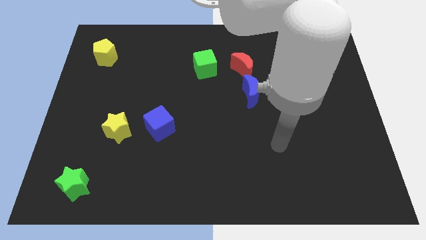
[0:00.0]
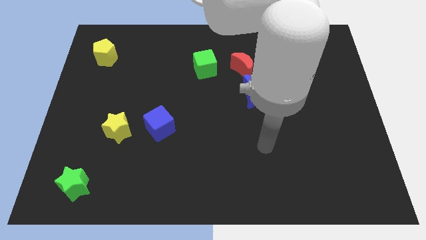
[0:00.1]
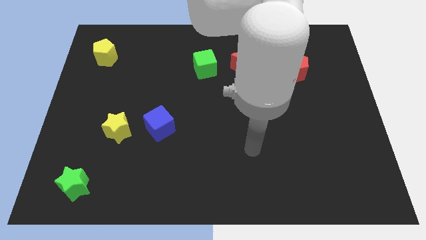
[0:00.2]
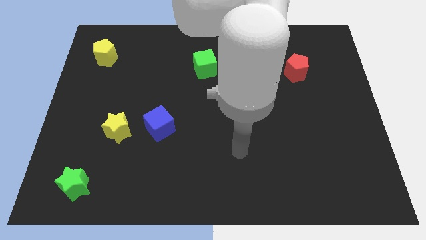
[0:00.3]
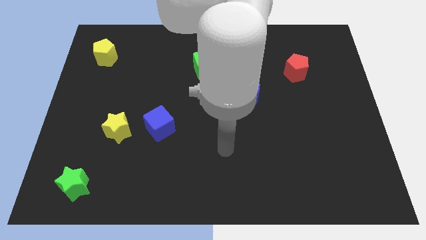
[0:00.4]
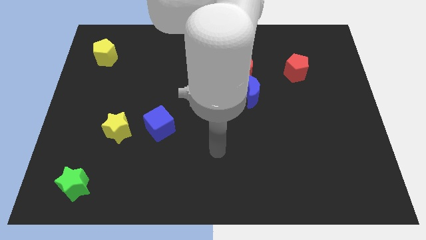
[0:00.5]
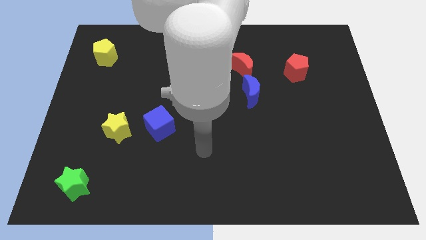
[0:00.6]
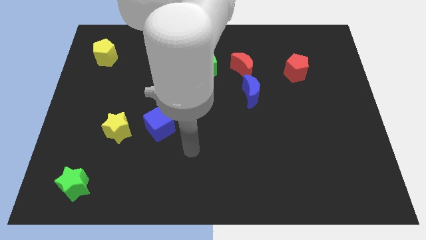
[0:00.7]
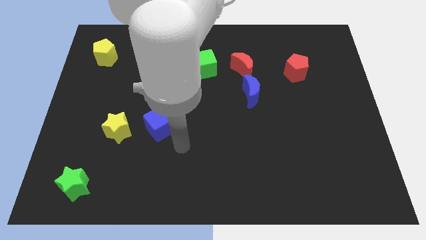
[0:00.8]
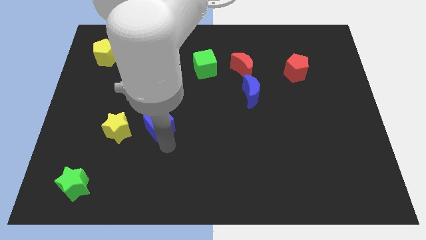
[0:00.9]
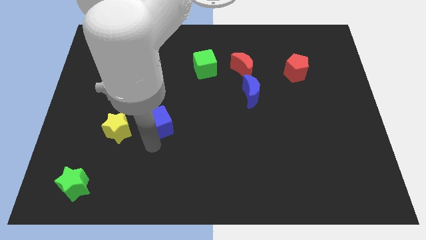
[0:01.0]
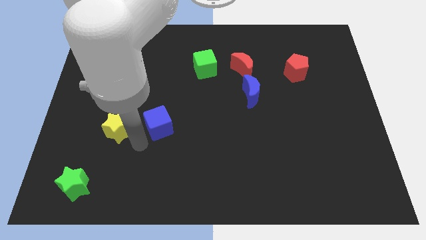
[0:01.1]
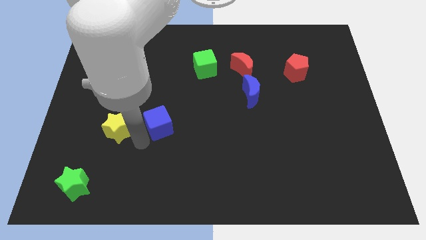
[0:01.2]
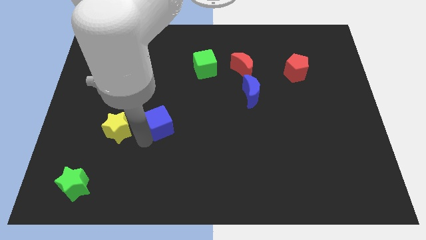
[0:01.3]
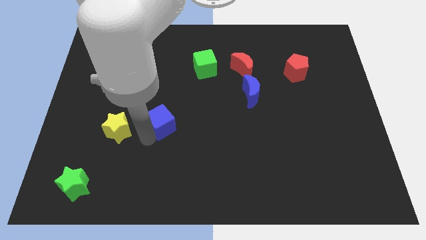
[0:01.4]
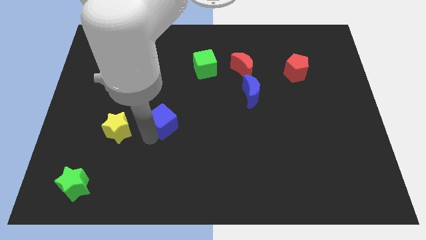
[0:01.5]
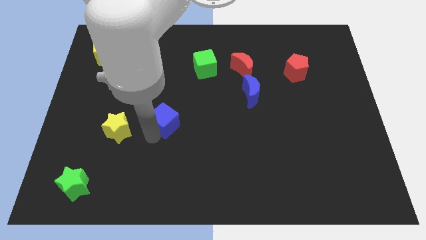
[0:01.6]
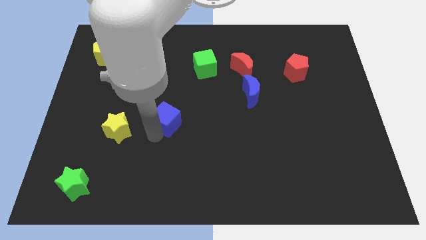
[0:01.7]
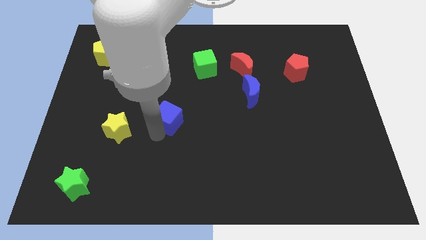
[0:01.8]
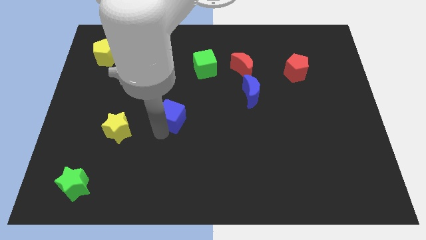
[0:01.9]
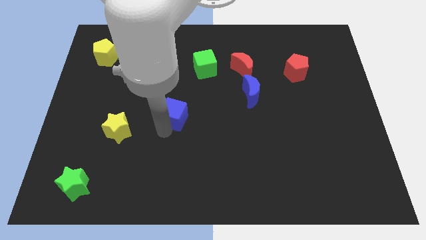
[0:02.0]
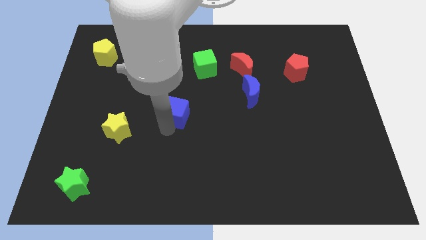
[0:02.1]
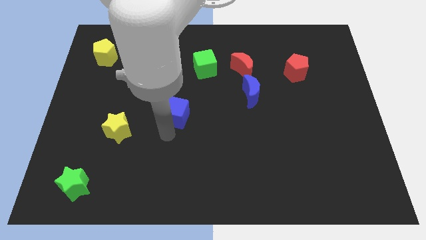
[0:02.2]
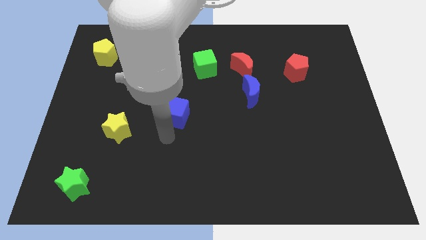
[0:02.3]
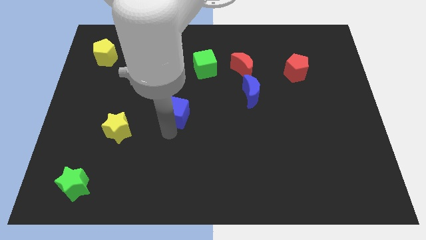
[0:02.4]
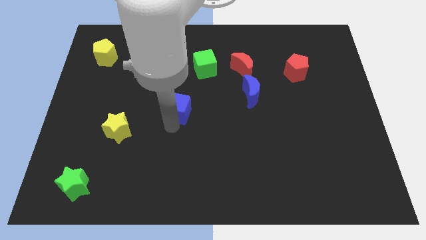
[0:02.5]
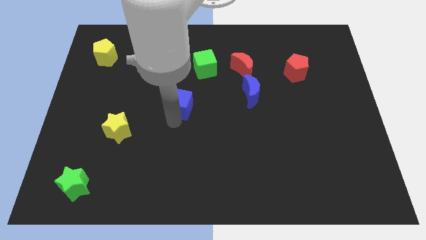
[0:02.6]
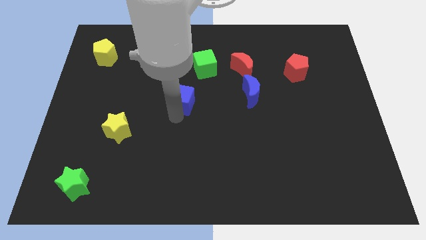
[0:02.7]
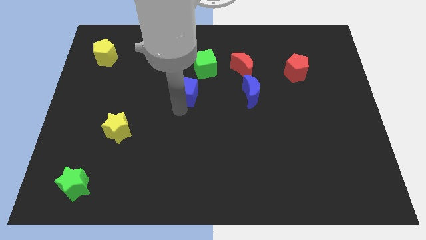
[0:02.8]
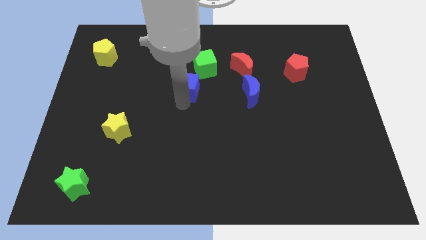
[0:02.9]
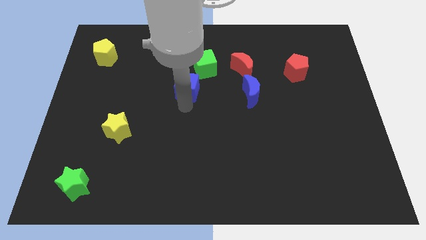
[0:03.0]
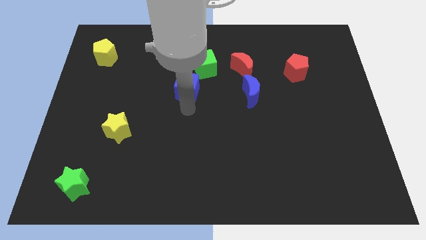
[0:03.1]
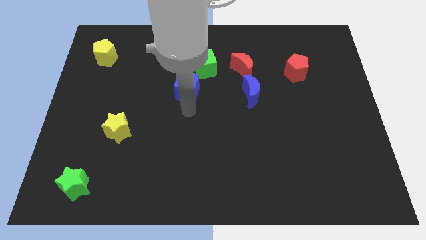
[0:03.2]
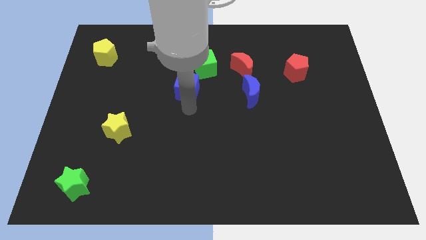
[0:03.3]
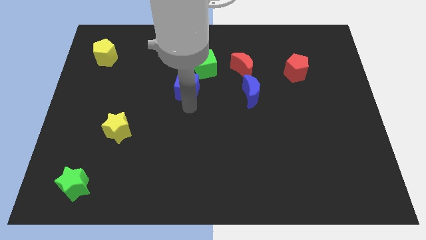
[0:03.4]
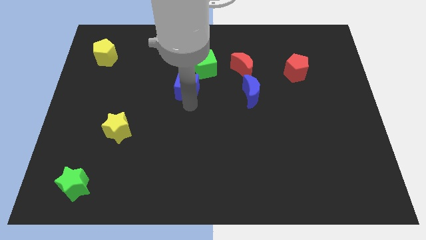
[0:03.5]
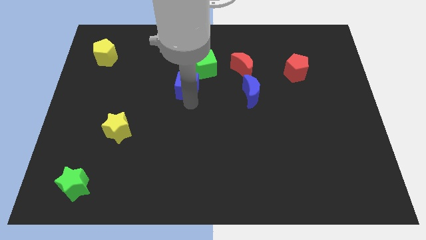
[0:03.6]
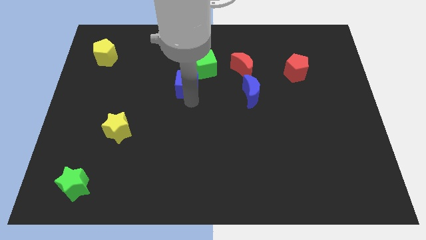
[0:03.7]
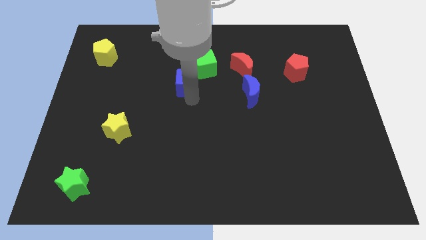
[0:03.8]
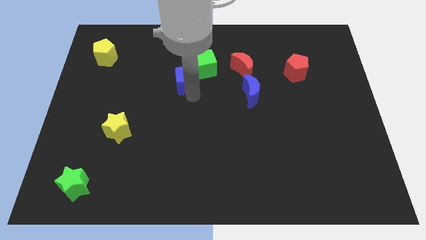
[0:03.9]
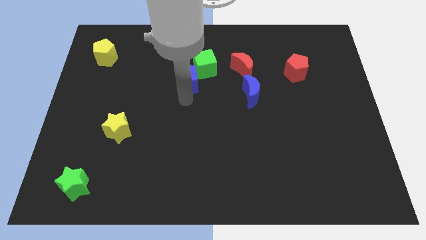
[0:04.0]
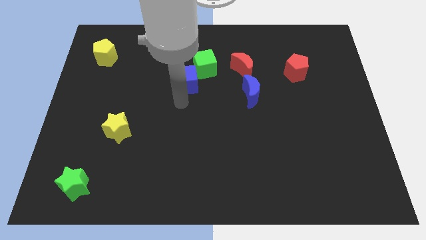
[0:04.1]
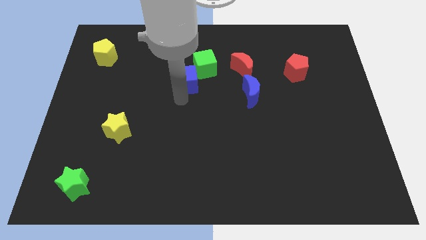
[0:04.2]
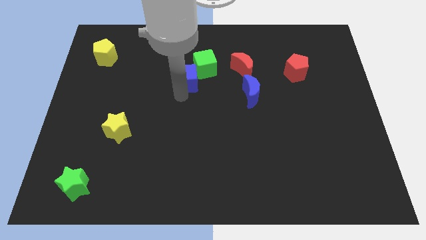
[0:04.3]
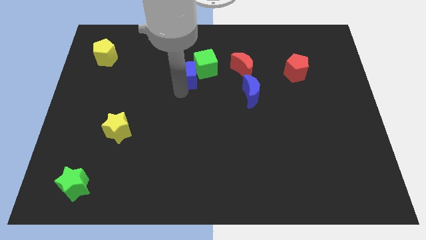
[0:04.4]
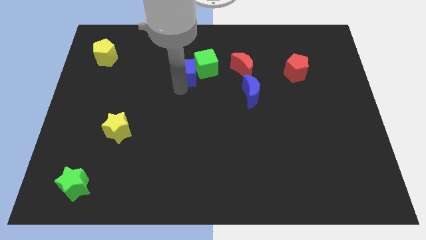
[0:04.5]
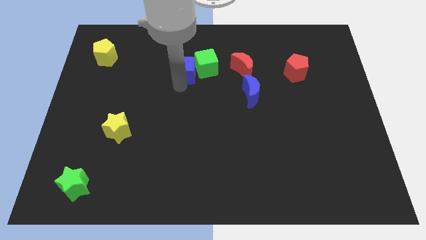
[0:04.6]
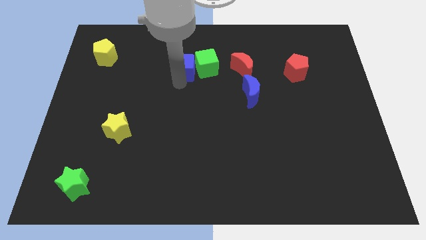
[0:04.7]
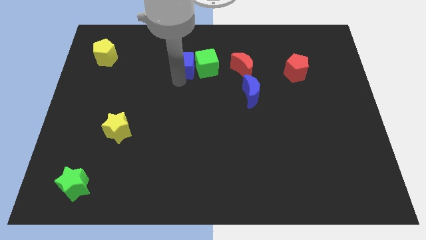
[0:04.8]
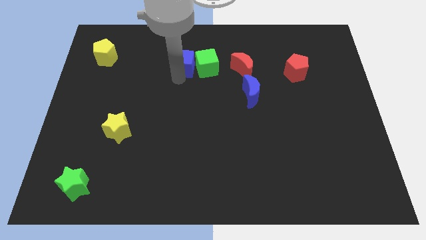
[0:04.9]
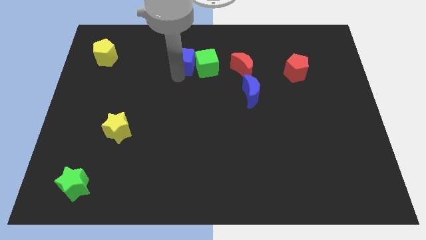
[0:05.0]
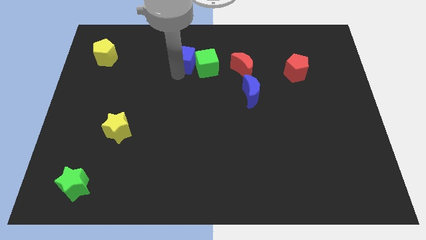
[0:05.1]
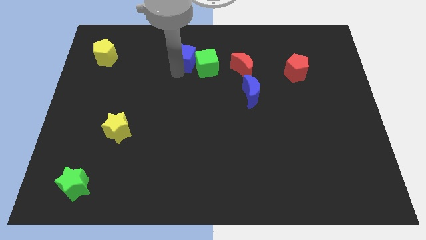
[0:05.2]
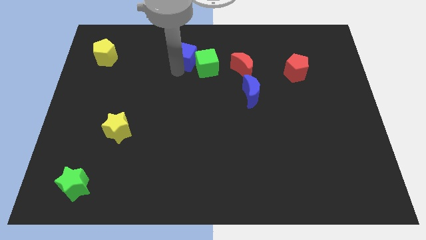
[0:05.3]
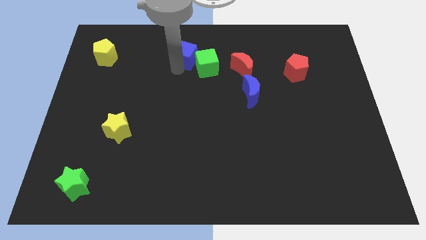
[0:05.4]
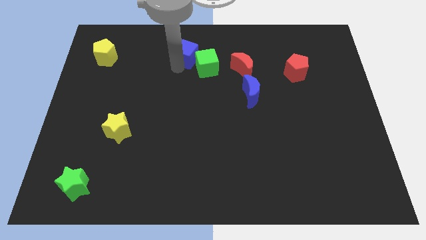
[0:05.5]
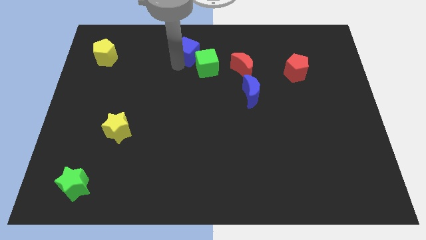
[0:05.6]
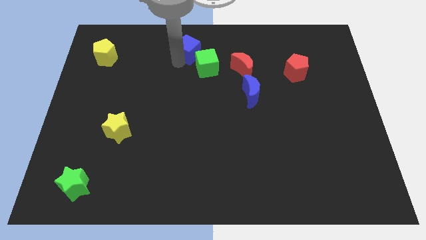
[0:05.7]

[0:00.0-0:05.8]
move the blue cube to the top

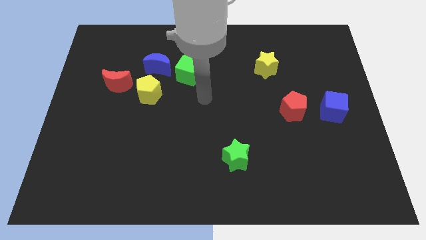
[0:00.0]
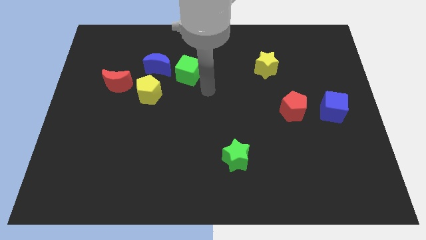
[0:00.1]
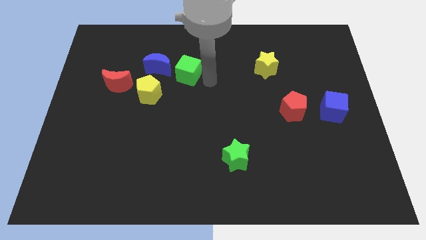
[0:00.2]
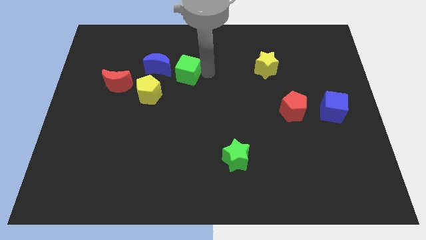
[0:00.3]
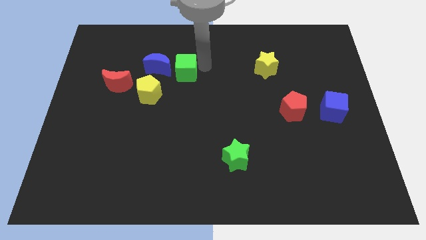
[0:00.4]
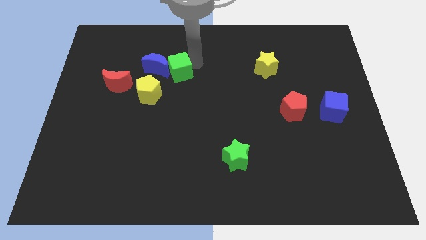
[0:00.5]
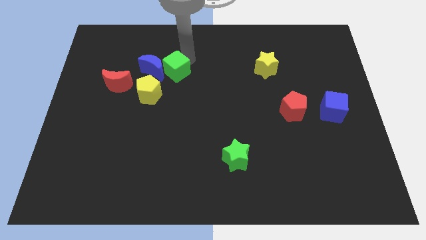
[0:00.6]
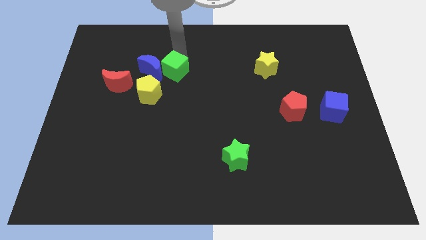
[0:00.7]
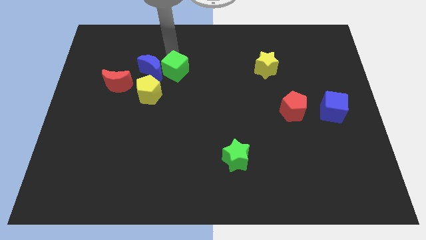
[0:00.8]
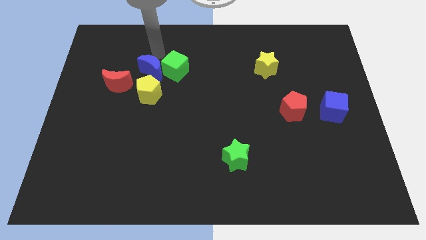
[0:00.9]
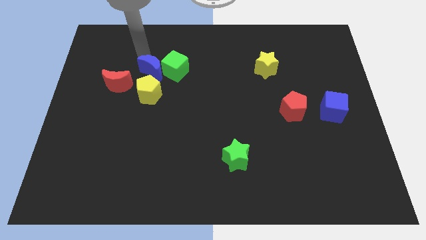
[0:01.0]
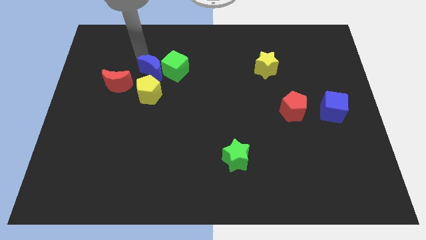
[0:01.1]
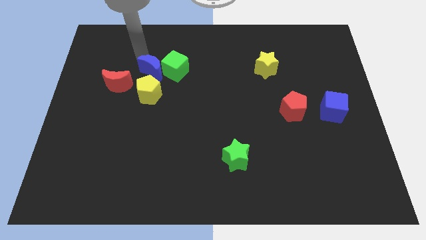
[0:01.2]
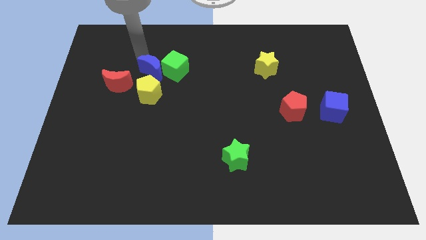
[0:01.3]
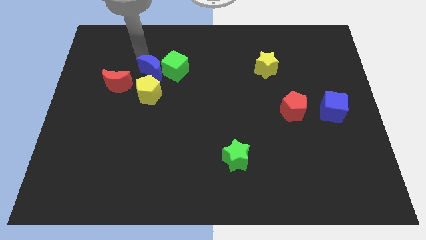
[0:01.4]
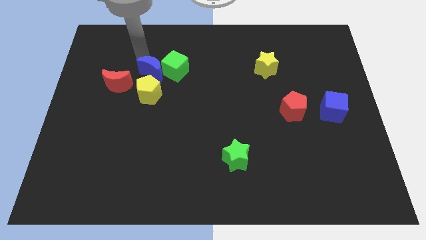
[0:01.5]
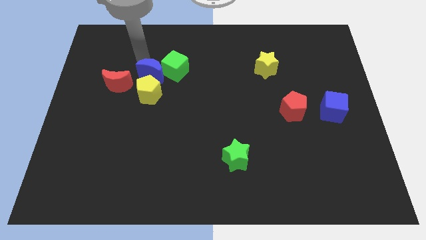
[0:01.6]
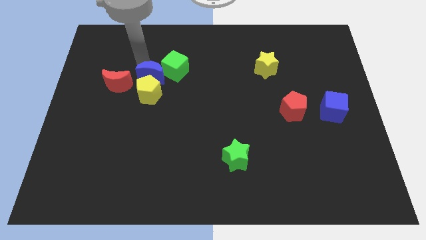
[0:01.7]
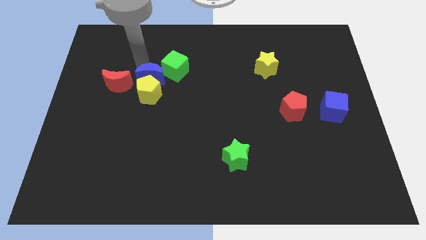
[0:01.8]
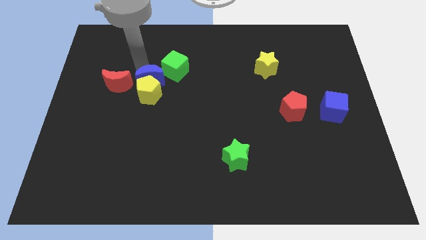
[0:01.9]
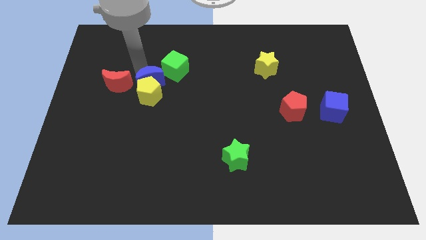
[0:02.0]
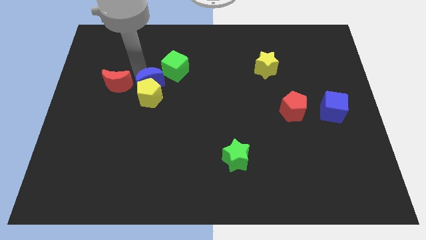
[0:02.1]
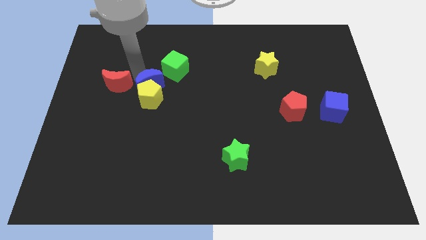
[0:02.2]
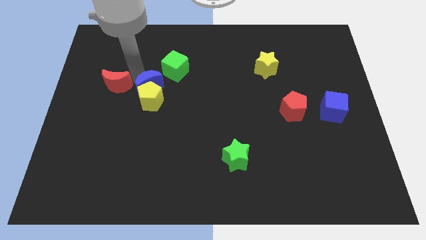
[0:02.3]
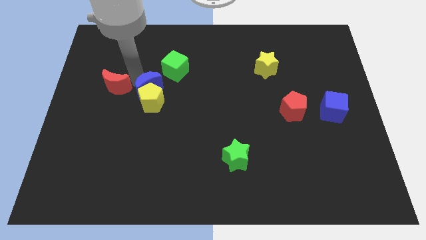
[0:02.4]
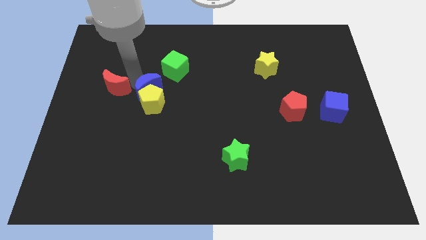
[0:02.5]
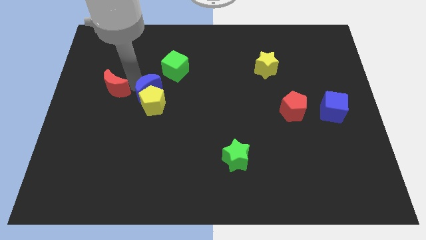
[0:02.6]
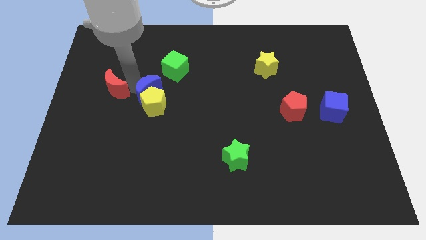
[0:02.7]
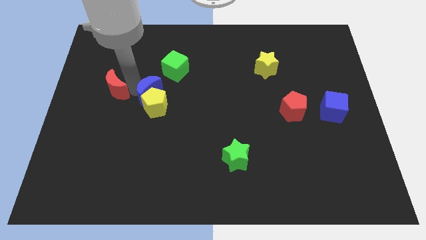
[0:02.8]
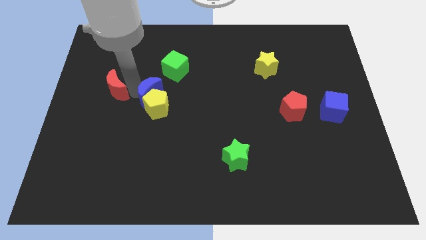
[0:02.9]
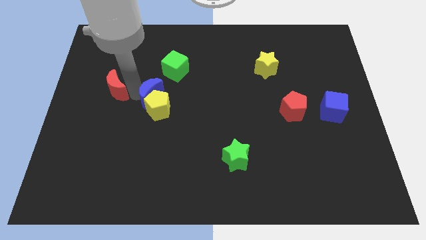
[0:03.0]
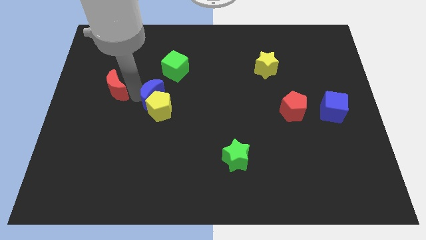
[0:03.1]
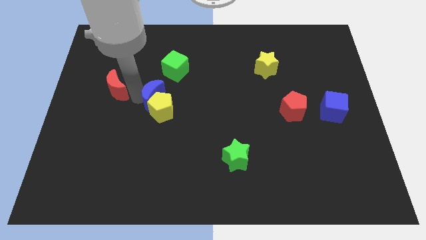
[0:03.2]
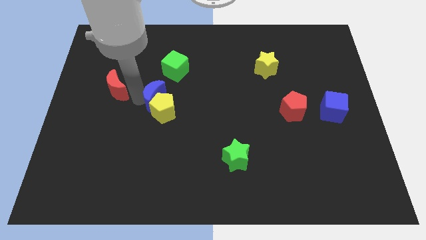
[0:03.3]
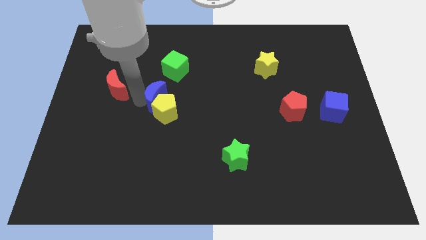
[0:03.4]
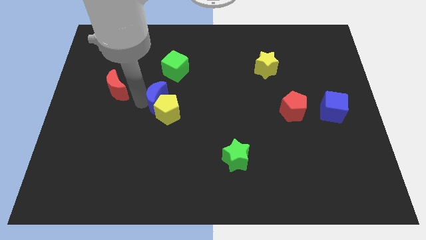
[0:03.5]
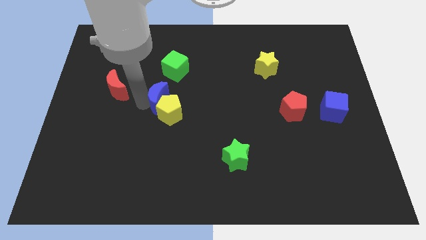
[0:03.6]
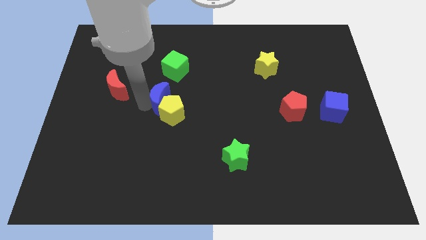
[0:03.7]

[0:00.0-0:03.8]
slide the blue moon to the middle
